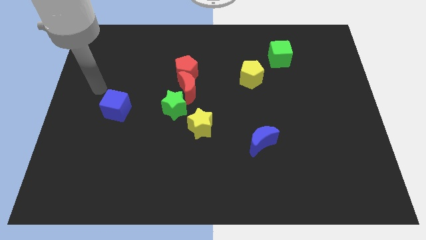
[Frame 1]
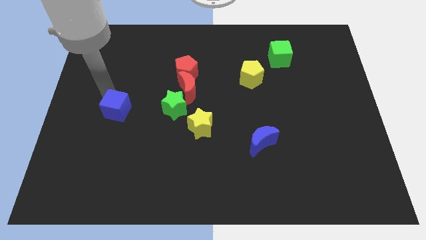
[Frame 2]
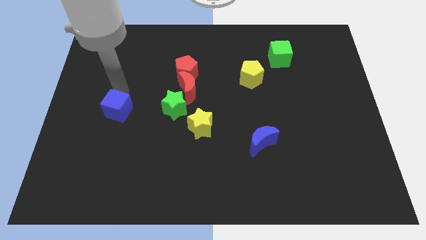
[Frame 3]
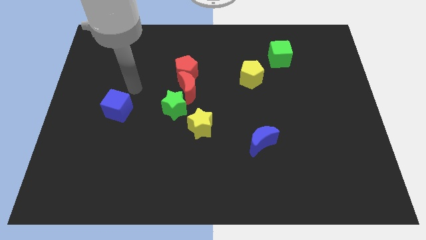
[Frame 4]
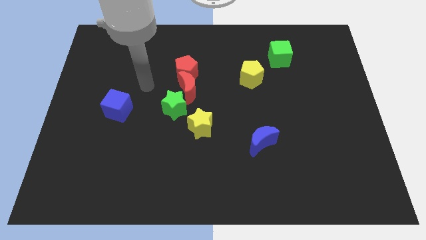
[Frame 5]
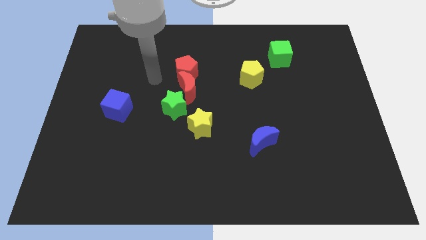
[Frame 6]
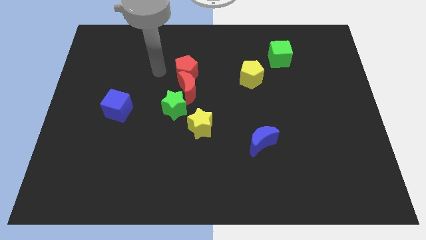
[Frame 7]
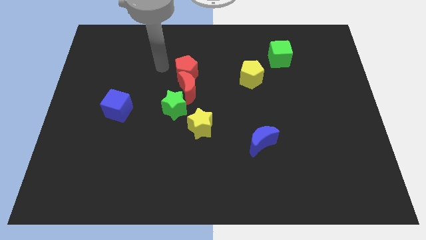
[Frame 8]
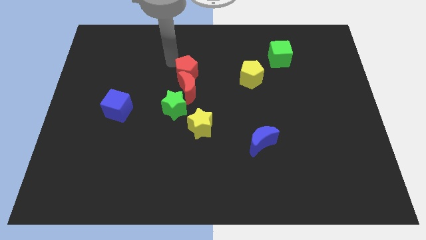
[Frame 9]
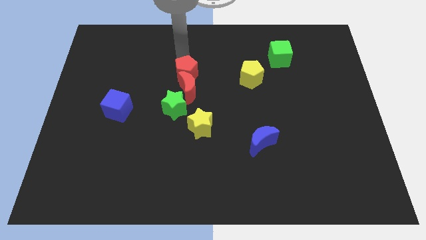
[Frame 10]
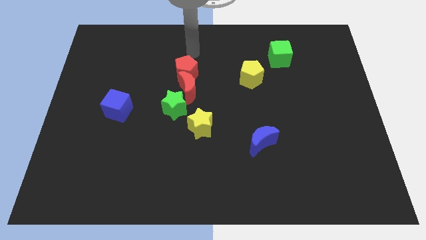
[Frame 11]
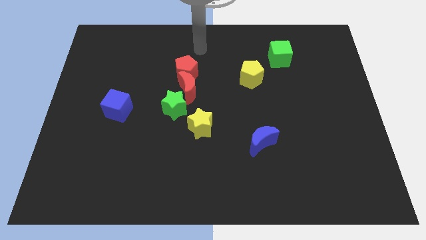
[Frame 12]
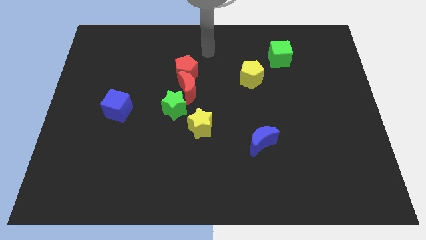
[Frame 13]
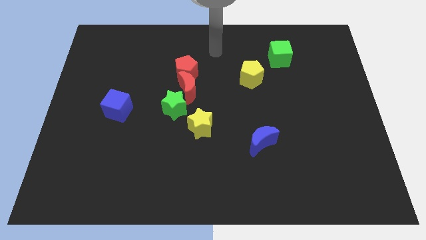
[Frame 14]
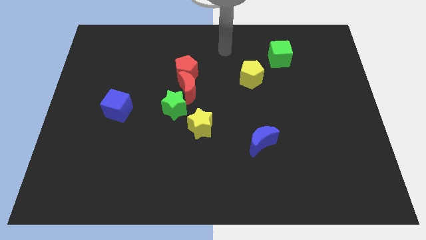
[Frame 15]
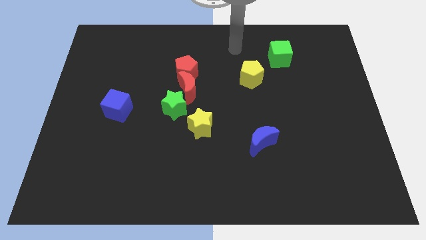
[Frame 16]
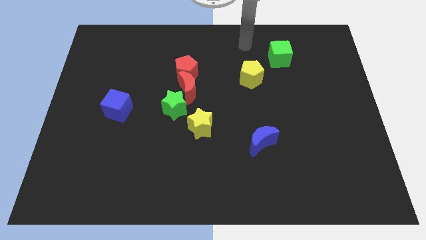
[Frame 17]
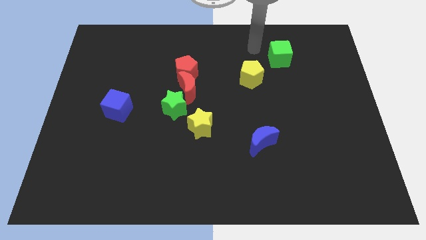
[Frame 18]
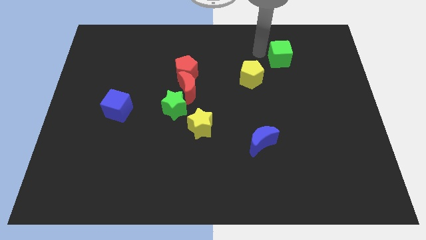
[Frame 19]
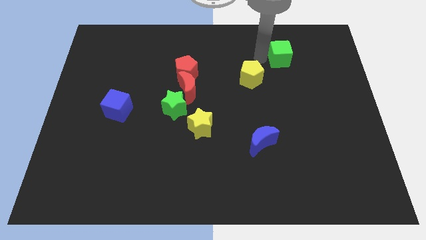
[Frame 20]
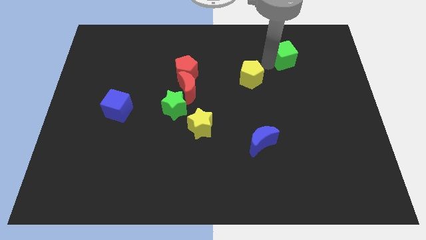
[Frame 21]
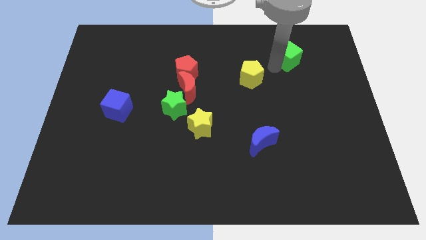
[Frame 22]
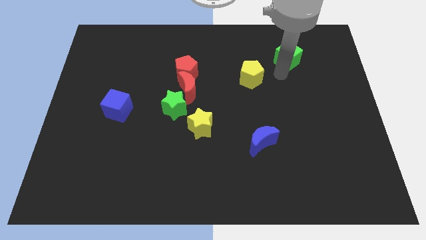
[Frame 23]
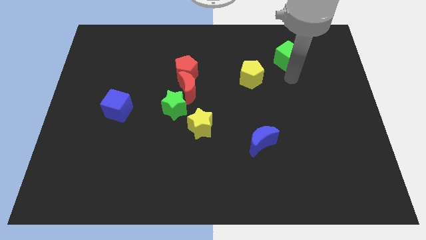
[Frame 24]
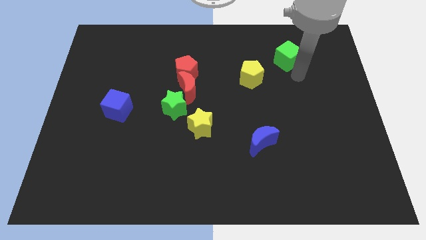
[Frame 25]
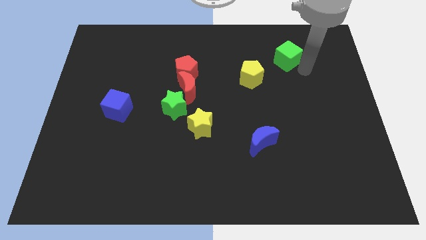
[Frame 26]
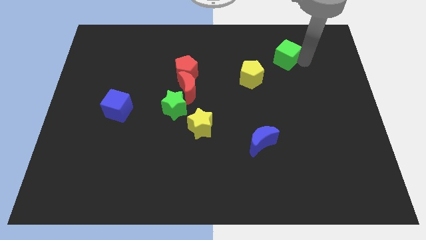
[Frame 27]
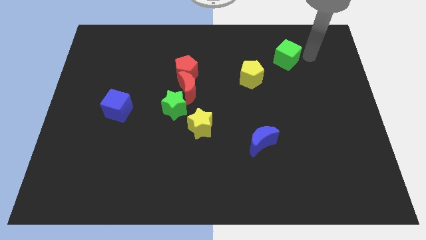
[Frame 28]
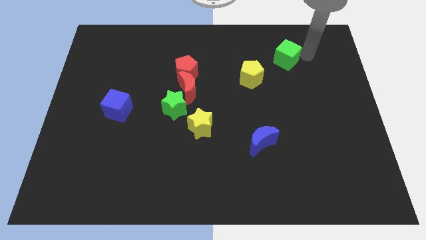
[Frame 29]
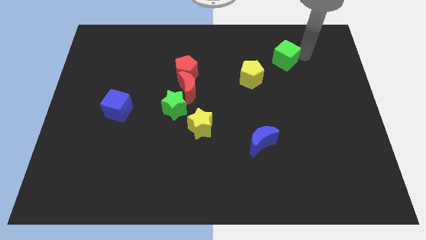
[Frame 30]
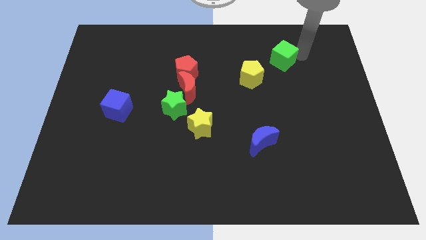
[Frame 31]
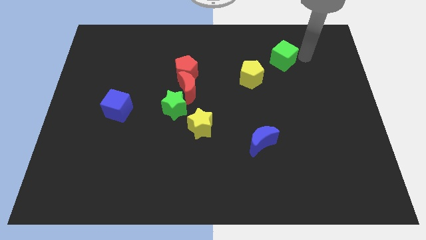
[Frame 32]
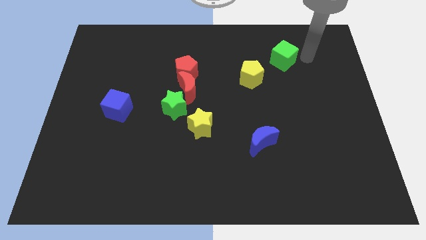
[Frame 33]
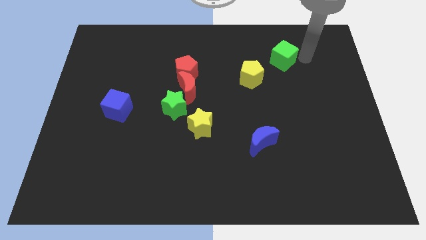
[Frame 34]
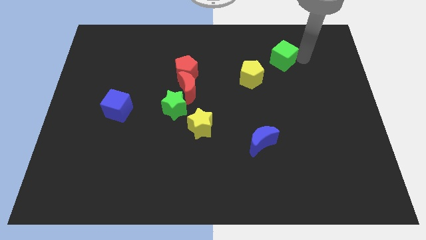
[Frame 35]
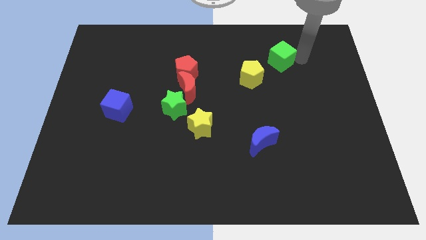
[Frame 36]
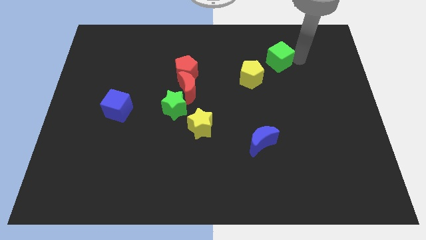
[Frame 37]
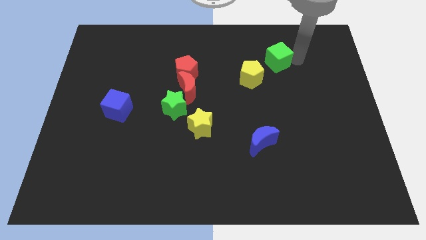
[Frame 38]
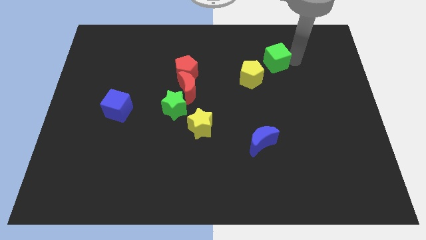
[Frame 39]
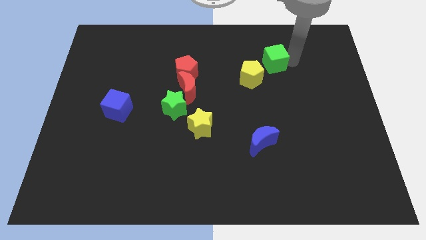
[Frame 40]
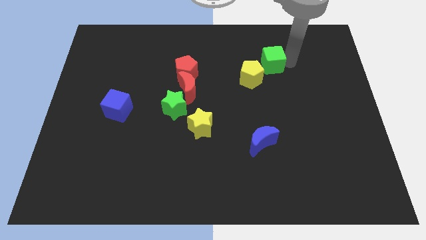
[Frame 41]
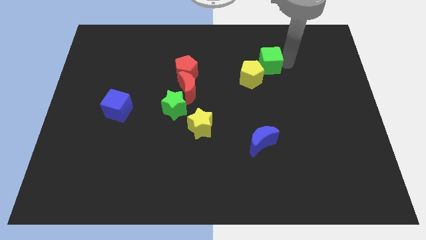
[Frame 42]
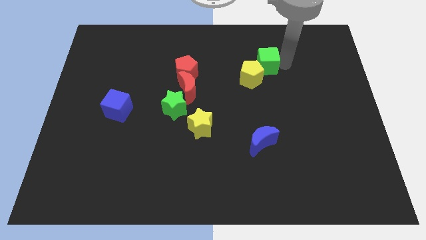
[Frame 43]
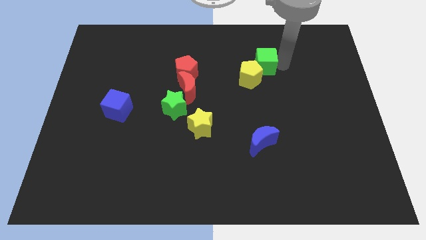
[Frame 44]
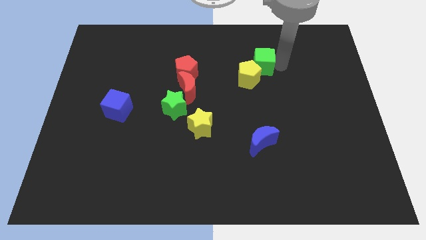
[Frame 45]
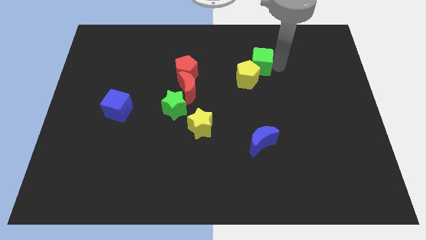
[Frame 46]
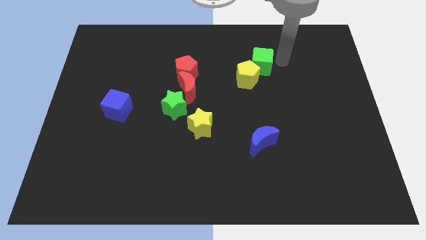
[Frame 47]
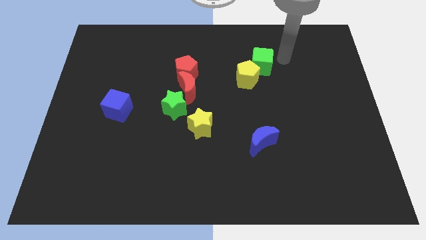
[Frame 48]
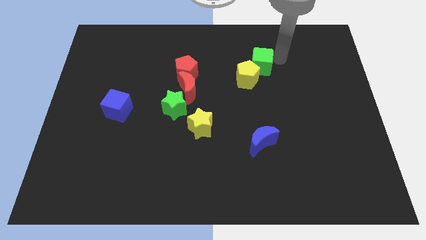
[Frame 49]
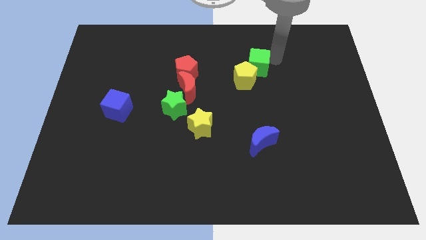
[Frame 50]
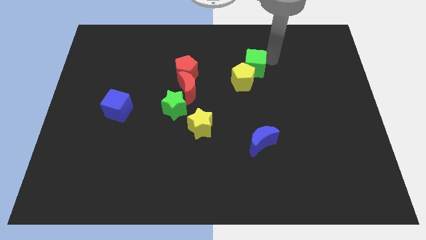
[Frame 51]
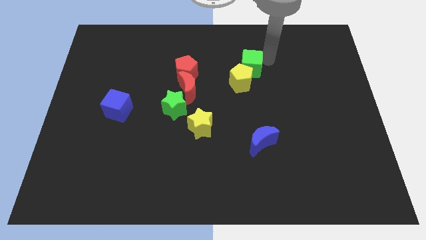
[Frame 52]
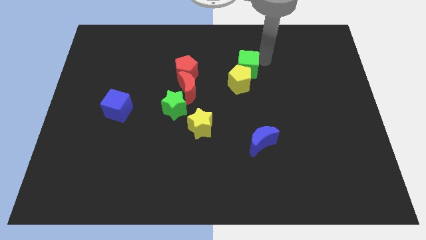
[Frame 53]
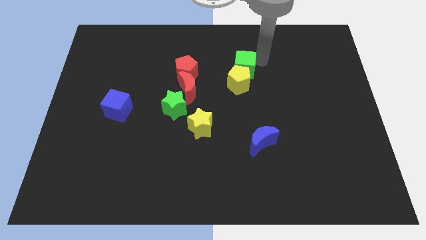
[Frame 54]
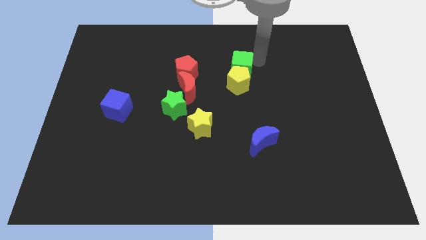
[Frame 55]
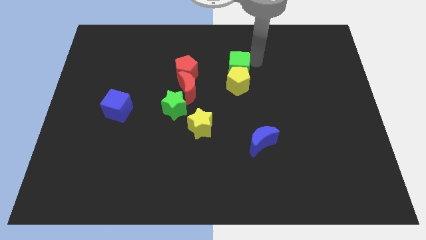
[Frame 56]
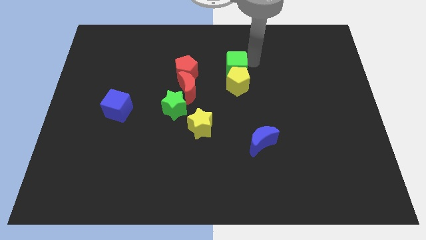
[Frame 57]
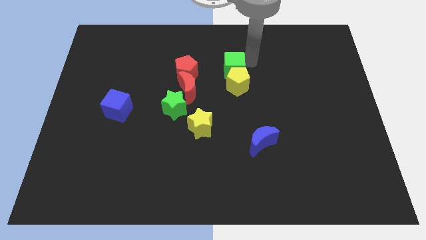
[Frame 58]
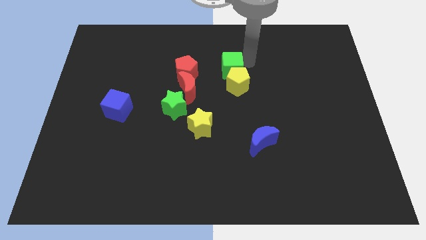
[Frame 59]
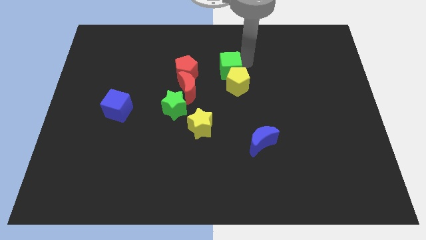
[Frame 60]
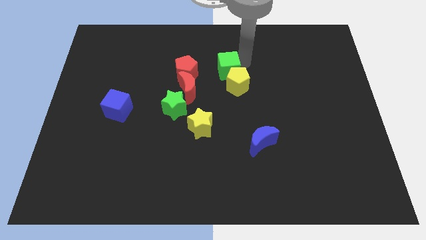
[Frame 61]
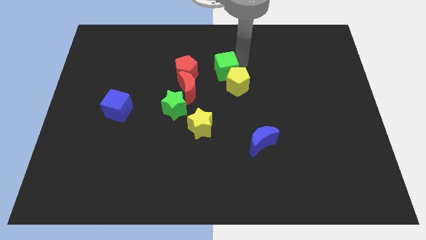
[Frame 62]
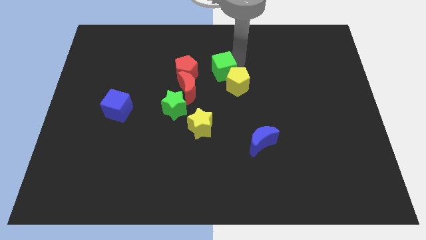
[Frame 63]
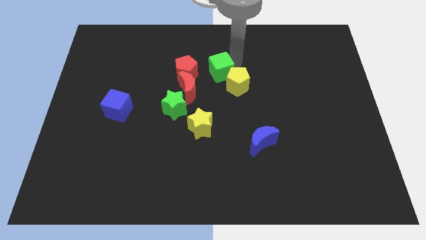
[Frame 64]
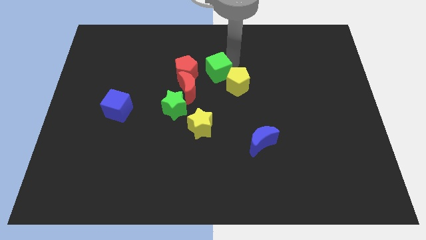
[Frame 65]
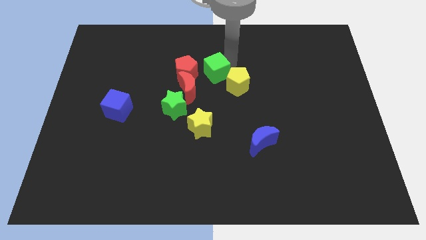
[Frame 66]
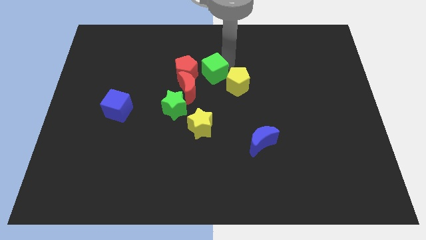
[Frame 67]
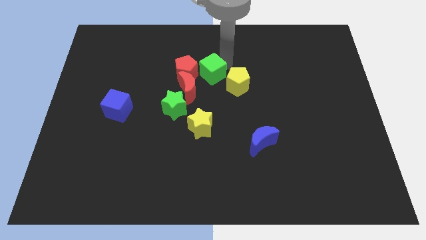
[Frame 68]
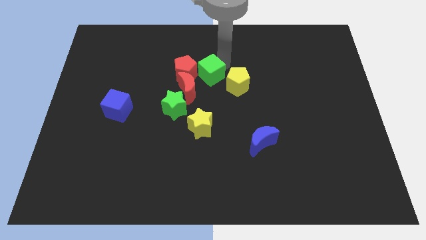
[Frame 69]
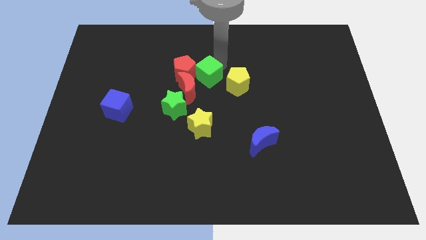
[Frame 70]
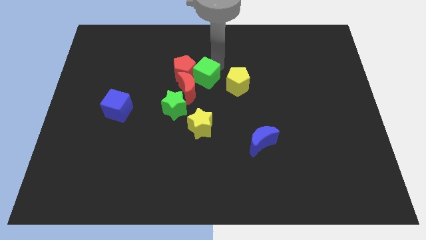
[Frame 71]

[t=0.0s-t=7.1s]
move the green cube towards the red moon

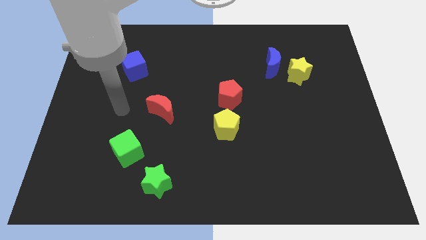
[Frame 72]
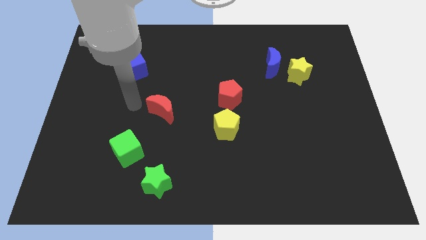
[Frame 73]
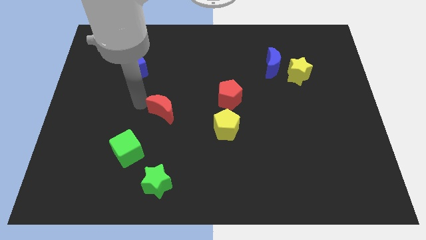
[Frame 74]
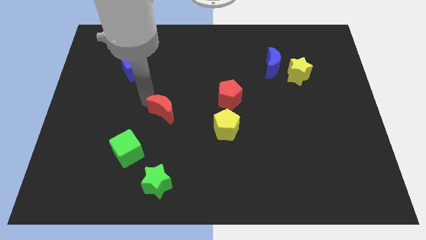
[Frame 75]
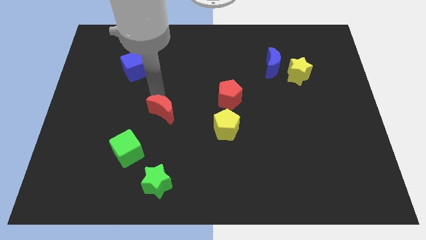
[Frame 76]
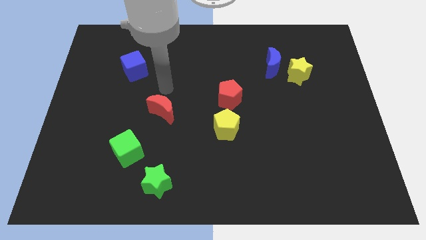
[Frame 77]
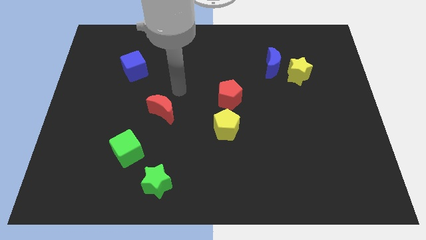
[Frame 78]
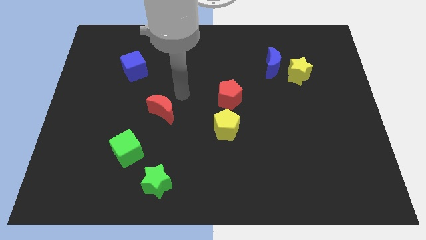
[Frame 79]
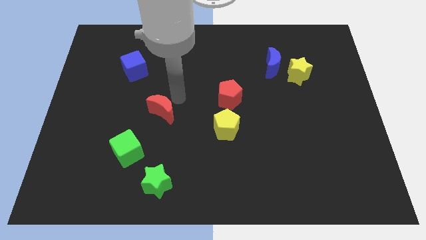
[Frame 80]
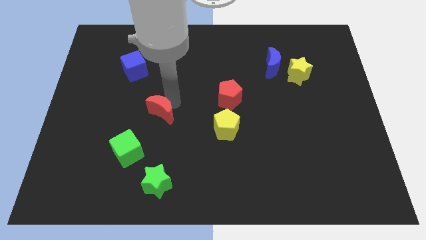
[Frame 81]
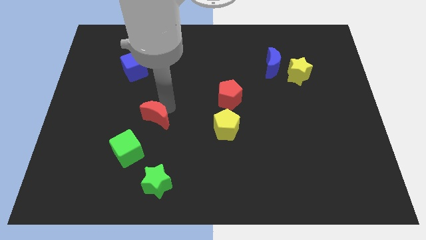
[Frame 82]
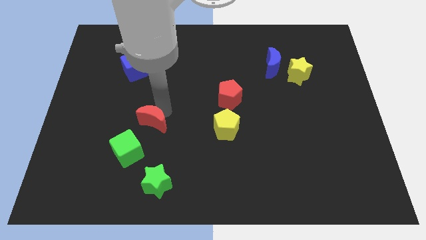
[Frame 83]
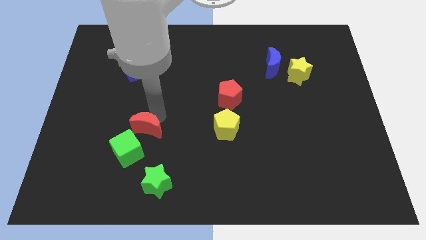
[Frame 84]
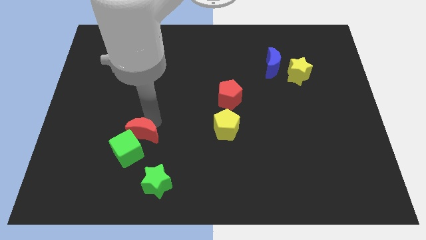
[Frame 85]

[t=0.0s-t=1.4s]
move the red moon to the green cube
